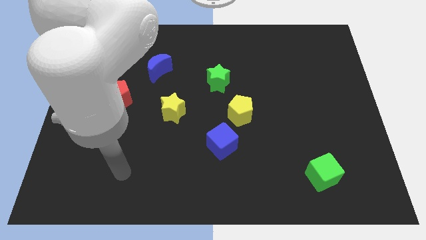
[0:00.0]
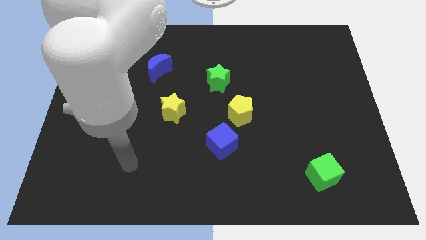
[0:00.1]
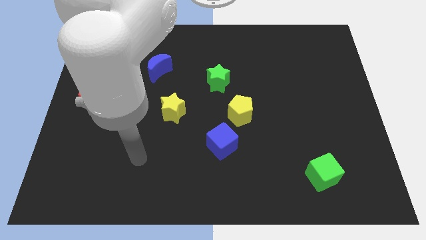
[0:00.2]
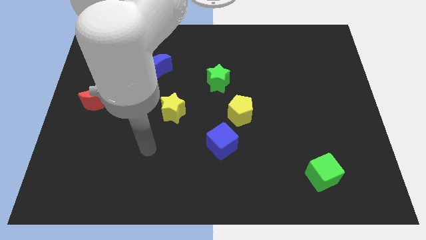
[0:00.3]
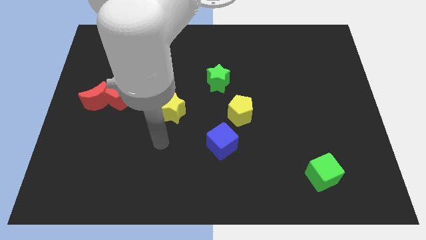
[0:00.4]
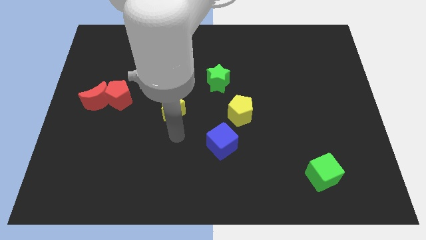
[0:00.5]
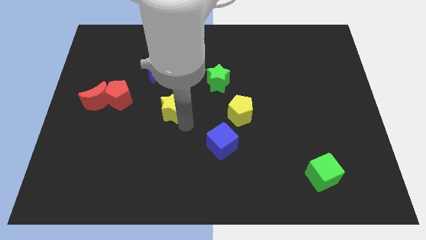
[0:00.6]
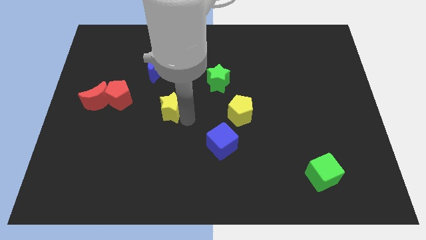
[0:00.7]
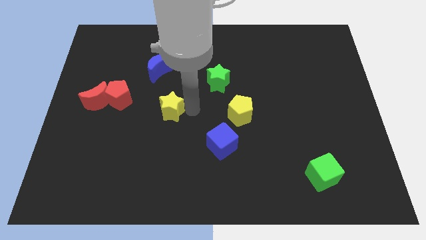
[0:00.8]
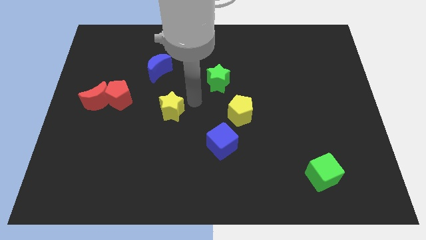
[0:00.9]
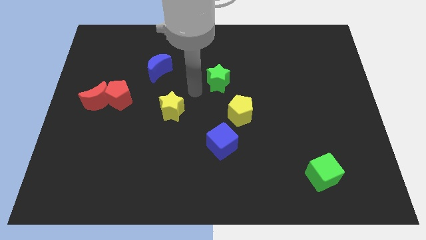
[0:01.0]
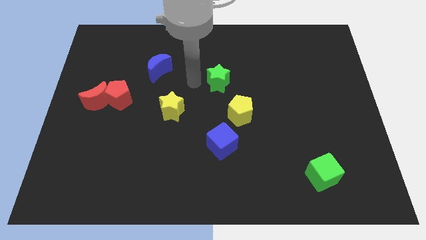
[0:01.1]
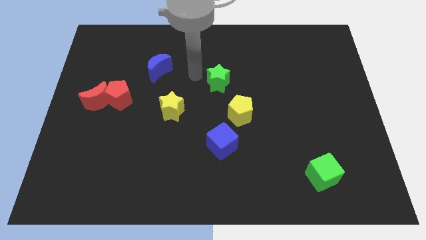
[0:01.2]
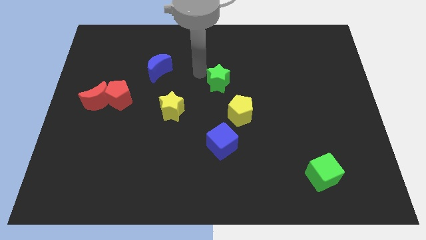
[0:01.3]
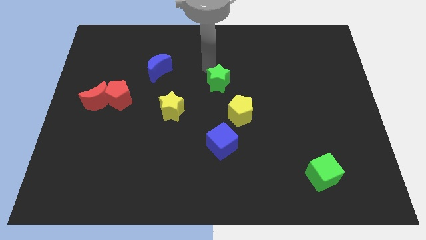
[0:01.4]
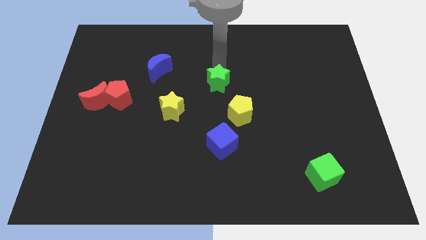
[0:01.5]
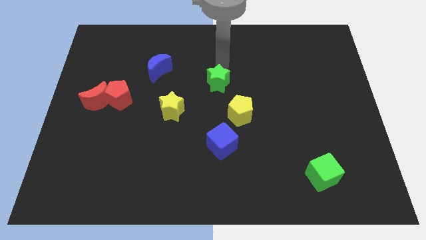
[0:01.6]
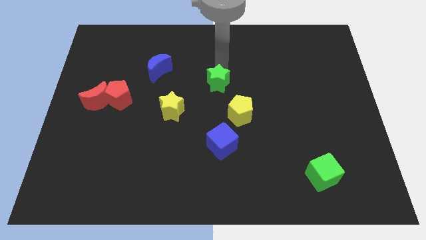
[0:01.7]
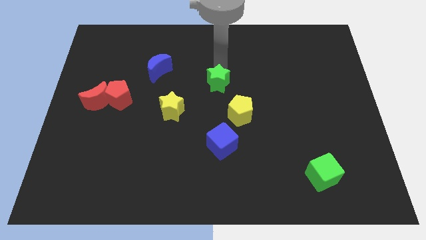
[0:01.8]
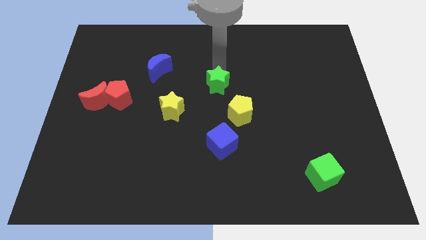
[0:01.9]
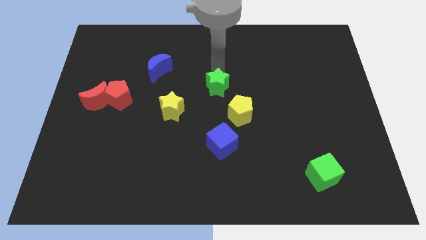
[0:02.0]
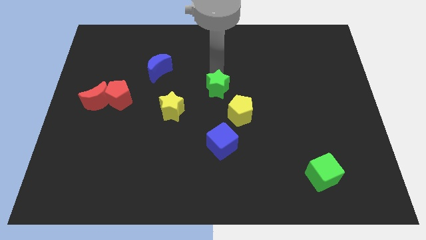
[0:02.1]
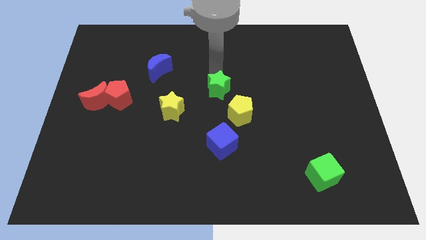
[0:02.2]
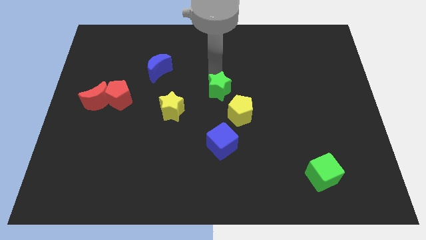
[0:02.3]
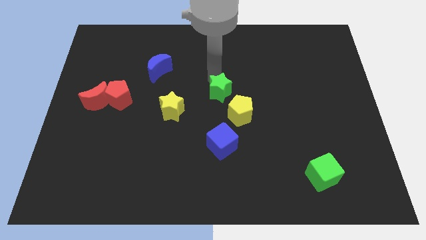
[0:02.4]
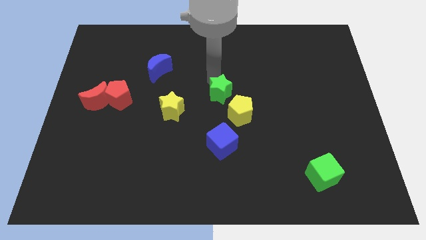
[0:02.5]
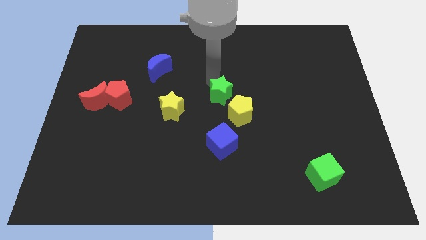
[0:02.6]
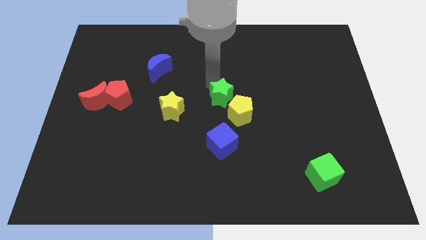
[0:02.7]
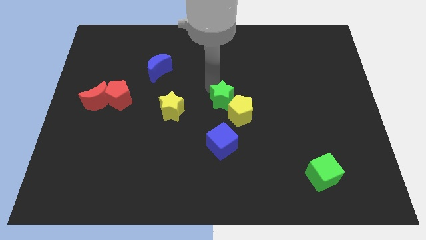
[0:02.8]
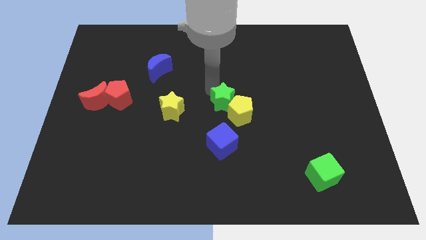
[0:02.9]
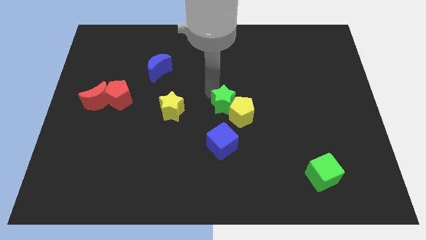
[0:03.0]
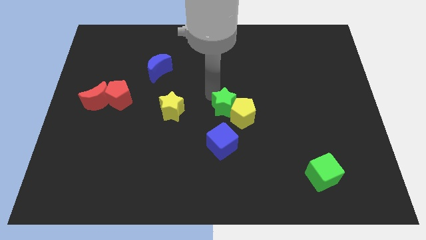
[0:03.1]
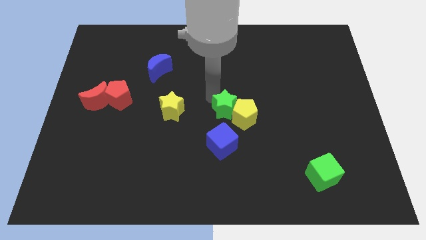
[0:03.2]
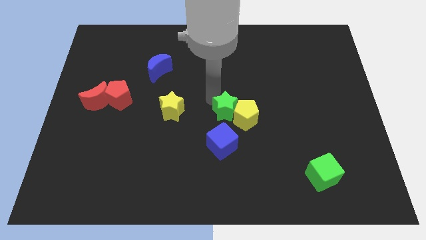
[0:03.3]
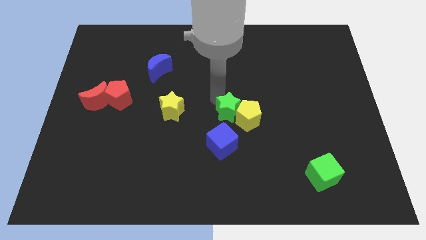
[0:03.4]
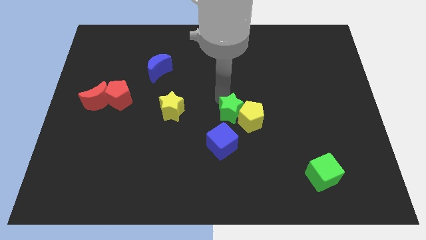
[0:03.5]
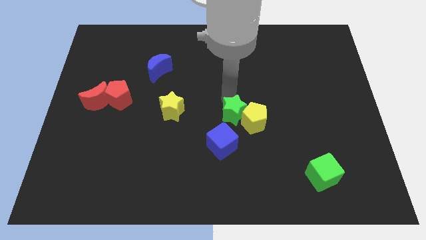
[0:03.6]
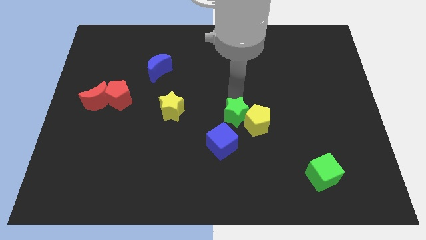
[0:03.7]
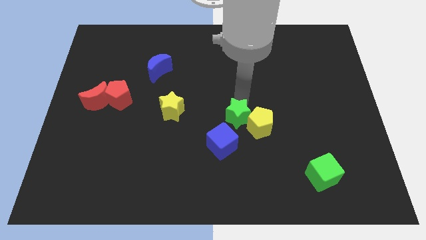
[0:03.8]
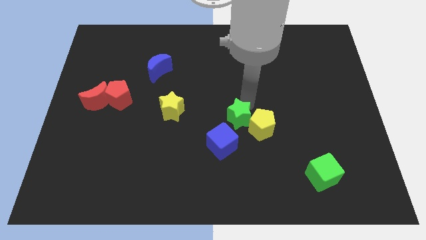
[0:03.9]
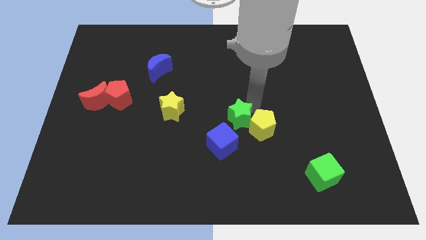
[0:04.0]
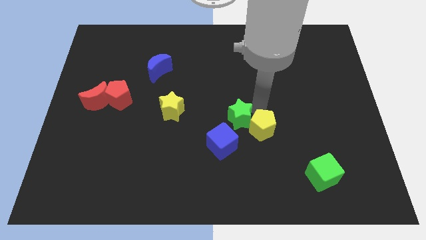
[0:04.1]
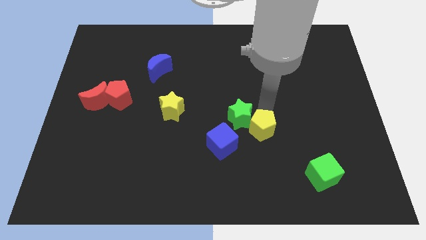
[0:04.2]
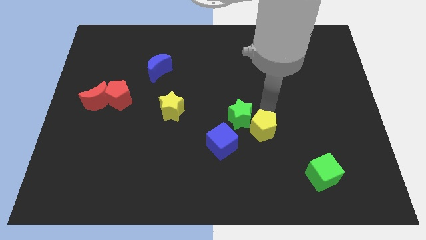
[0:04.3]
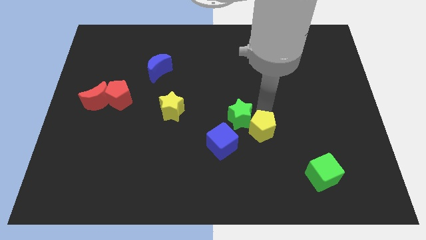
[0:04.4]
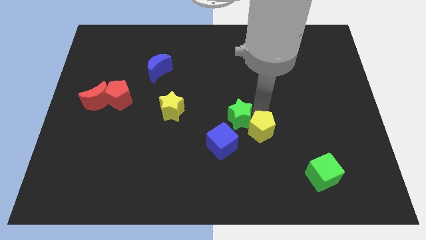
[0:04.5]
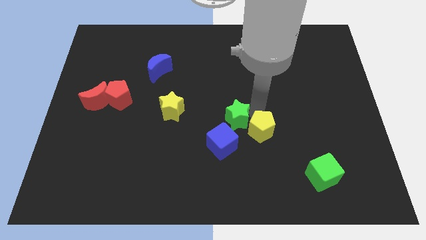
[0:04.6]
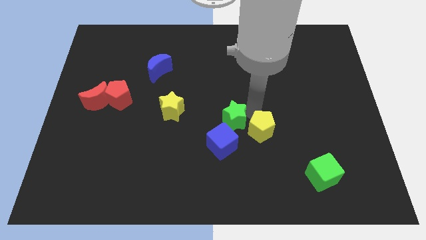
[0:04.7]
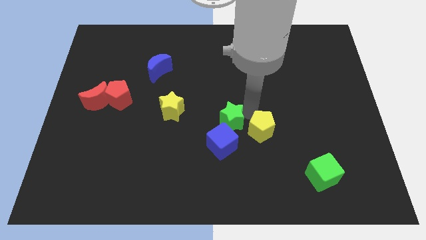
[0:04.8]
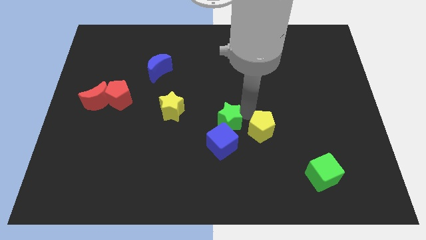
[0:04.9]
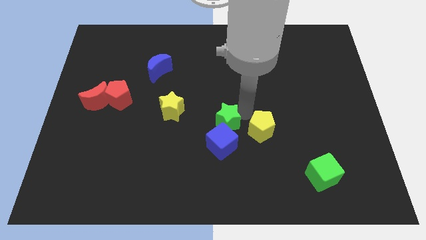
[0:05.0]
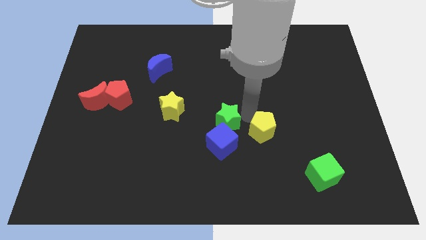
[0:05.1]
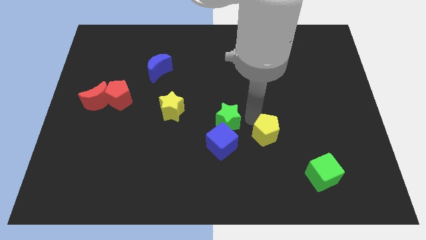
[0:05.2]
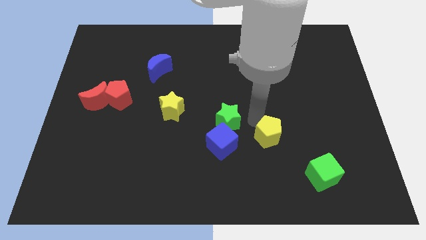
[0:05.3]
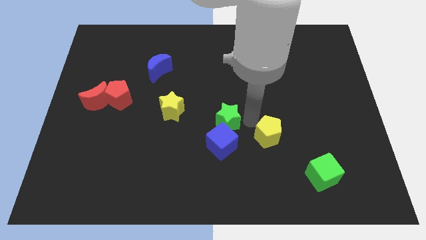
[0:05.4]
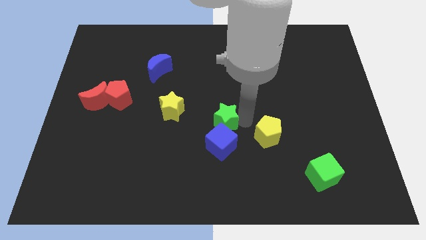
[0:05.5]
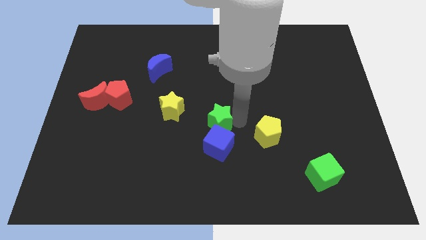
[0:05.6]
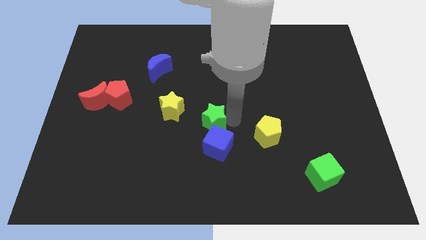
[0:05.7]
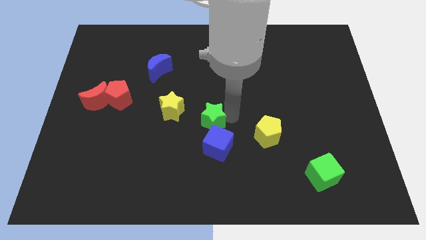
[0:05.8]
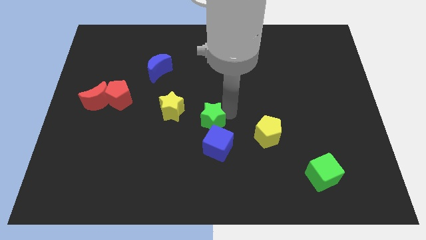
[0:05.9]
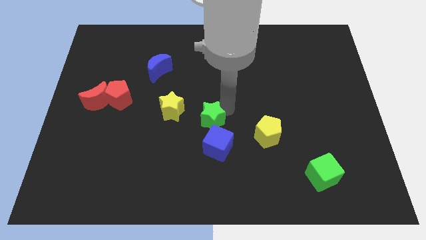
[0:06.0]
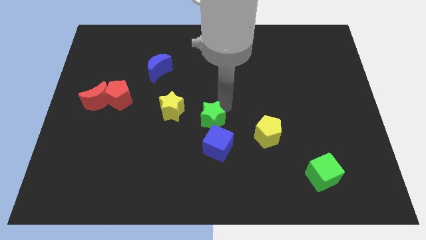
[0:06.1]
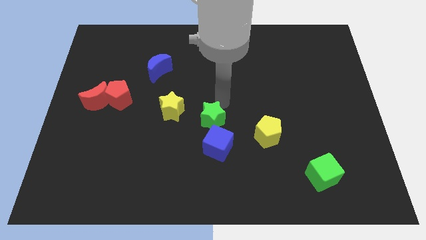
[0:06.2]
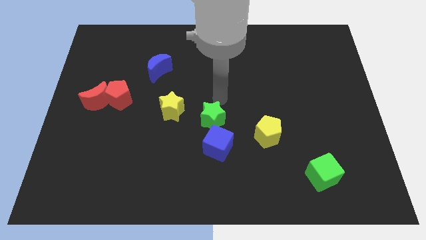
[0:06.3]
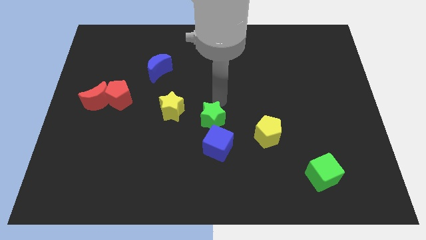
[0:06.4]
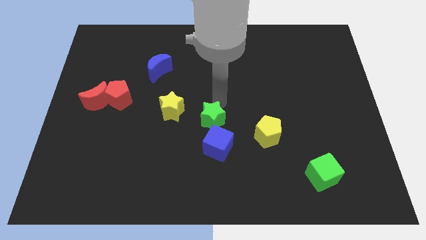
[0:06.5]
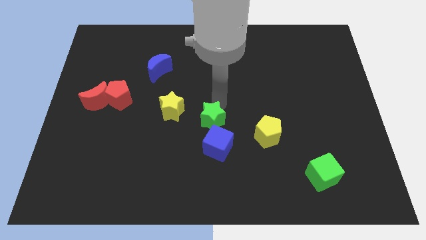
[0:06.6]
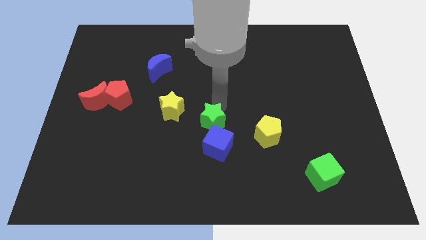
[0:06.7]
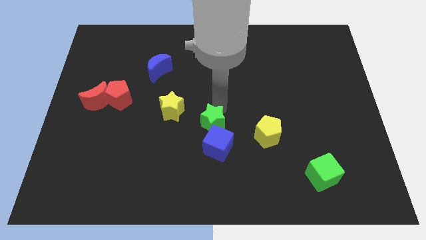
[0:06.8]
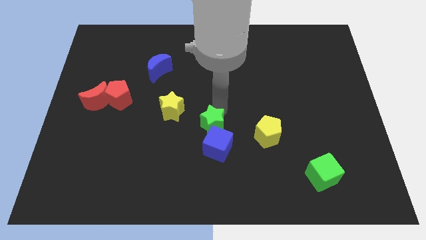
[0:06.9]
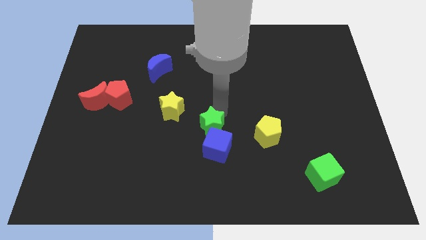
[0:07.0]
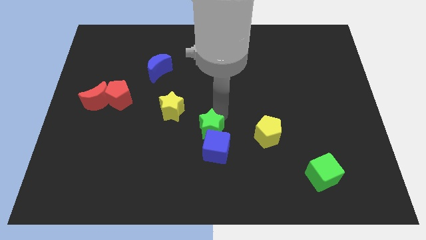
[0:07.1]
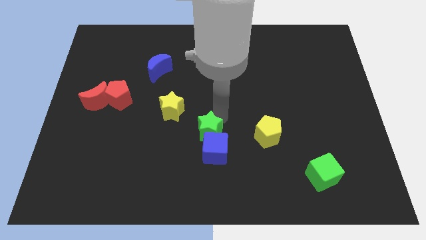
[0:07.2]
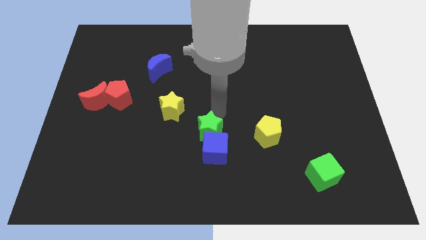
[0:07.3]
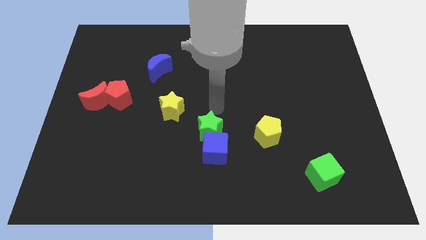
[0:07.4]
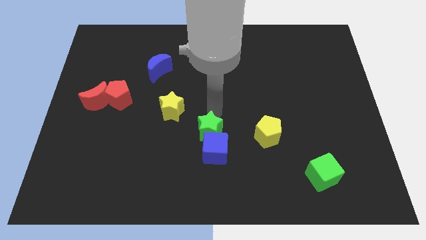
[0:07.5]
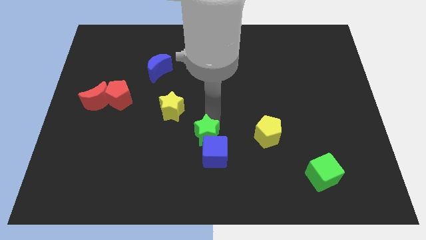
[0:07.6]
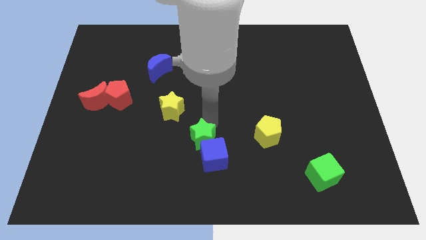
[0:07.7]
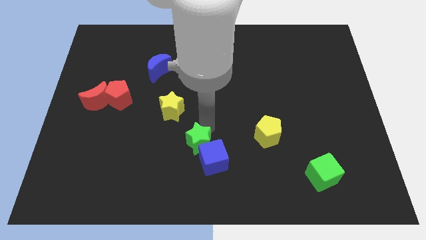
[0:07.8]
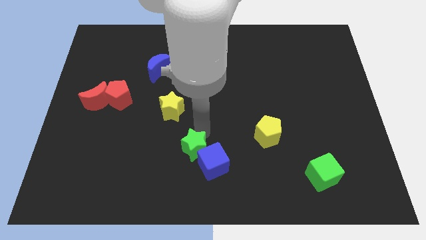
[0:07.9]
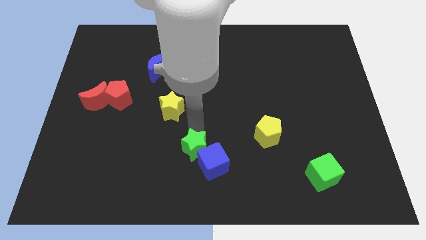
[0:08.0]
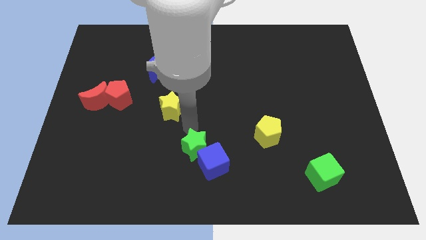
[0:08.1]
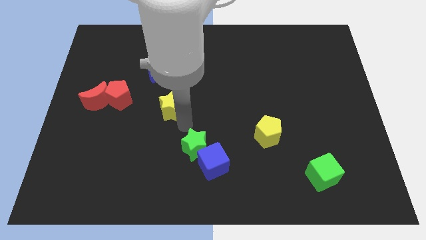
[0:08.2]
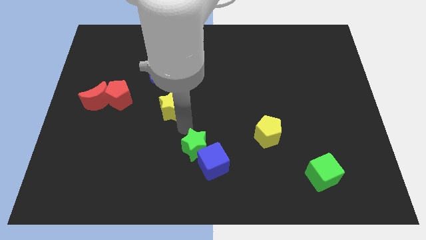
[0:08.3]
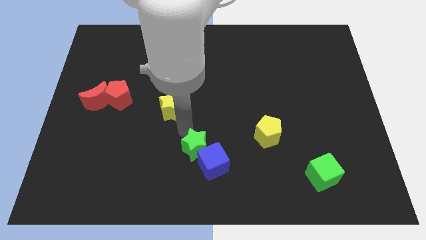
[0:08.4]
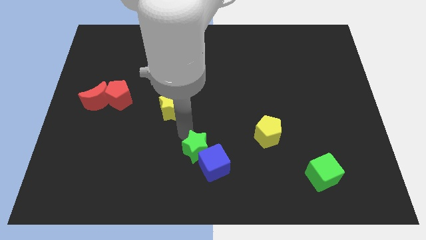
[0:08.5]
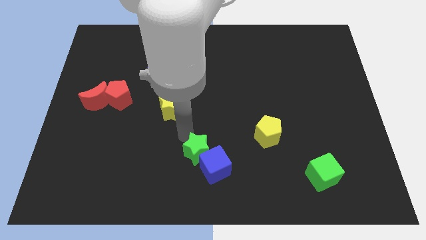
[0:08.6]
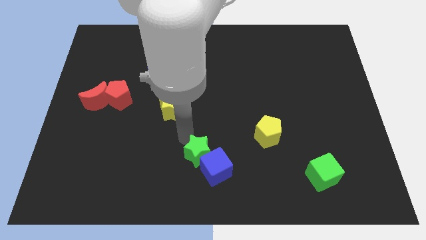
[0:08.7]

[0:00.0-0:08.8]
slide the green star to the bottom
